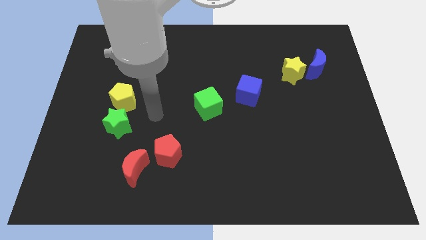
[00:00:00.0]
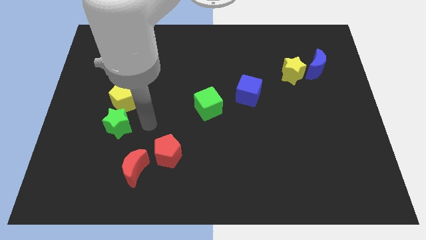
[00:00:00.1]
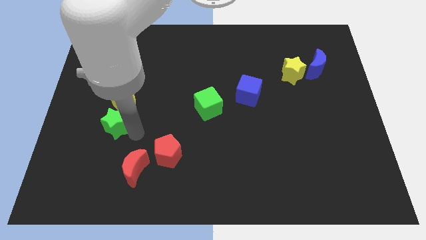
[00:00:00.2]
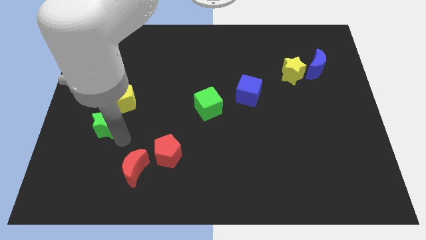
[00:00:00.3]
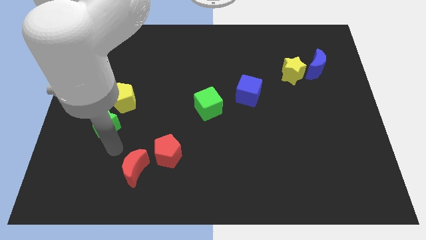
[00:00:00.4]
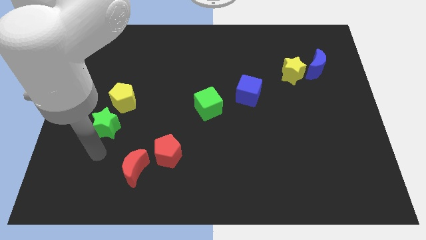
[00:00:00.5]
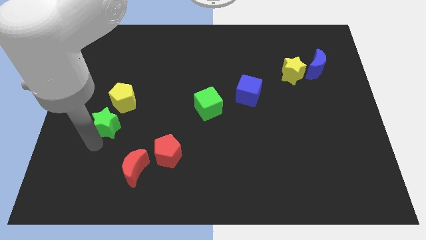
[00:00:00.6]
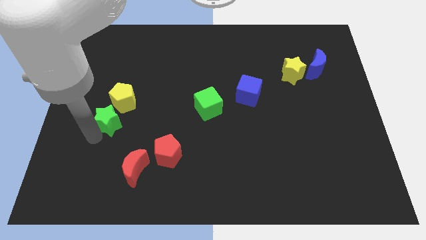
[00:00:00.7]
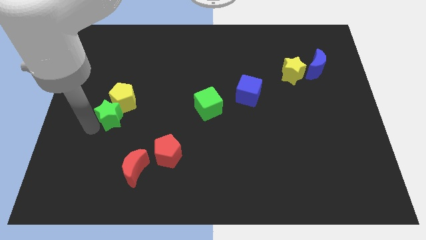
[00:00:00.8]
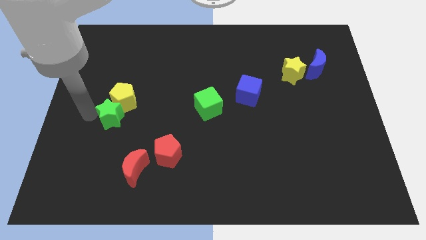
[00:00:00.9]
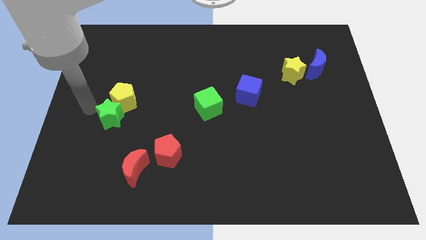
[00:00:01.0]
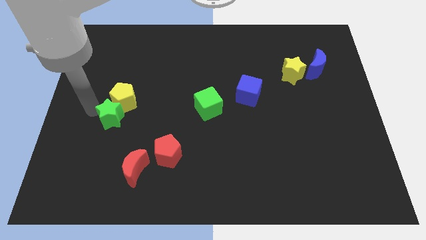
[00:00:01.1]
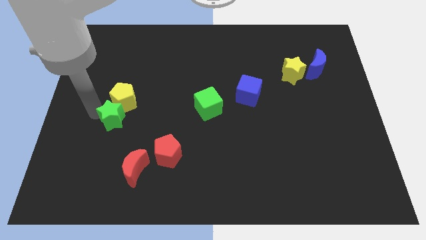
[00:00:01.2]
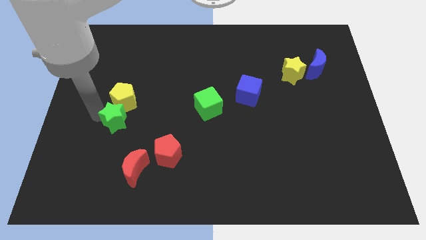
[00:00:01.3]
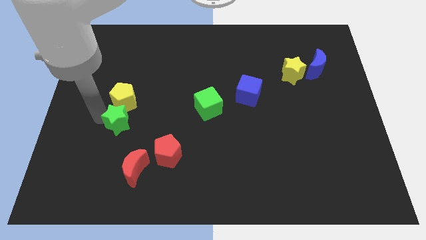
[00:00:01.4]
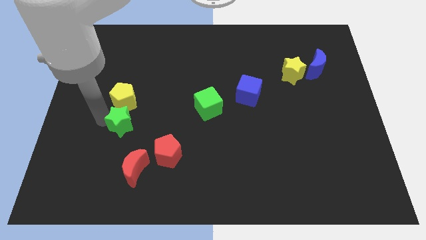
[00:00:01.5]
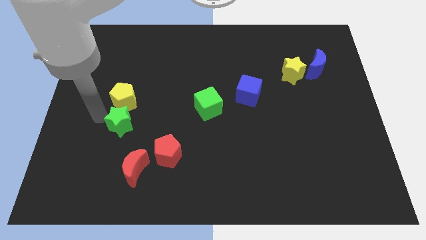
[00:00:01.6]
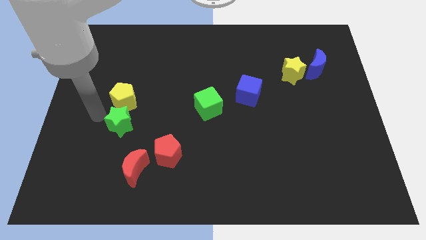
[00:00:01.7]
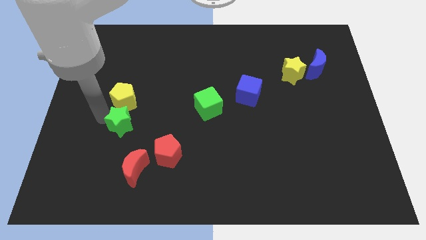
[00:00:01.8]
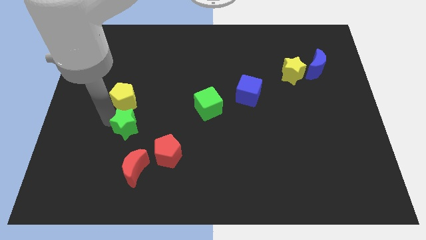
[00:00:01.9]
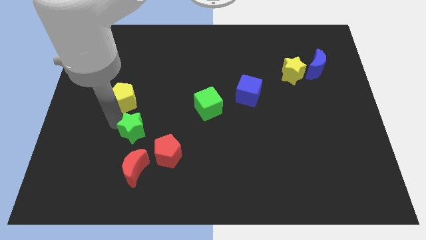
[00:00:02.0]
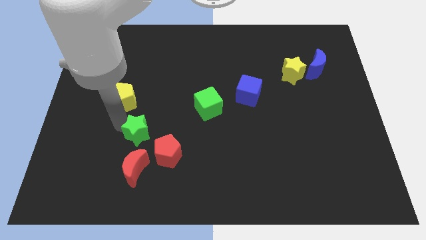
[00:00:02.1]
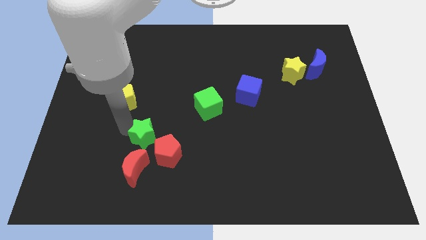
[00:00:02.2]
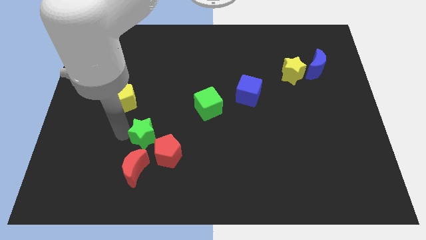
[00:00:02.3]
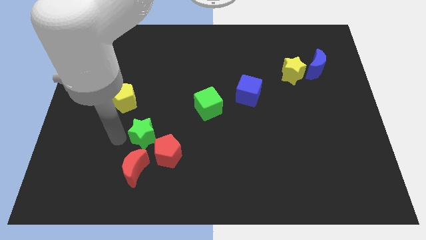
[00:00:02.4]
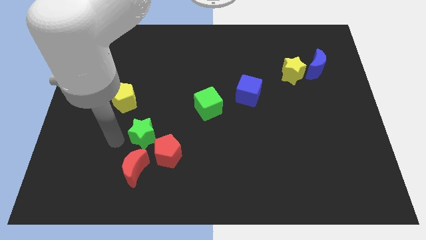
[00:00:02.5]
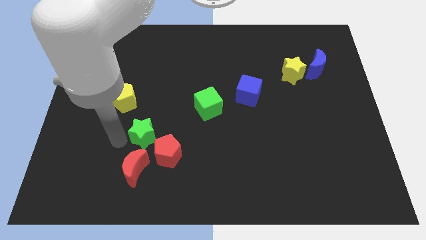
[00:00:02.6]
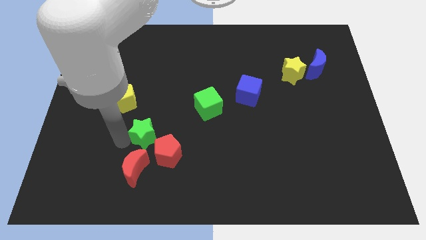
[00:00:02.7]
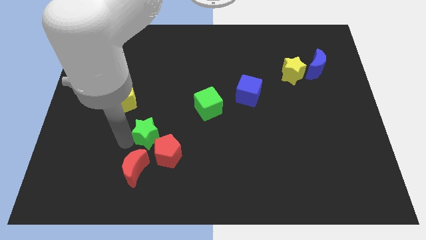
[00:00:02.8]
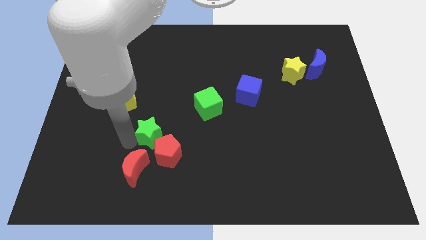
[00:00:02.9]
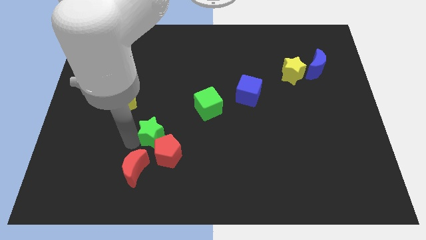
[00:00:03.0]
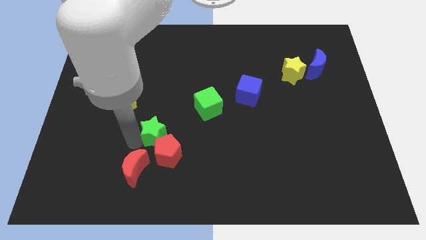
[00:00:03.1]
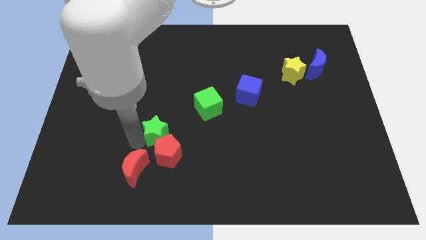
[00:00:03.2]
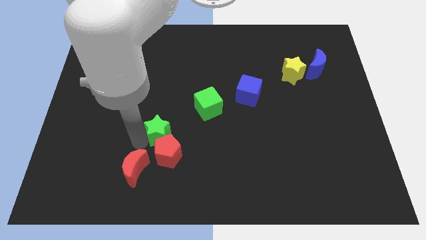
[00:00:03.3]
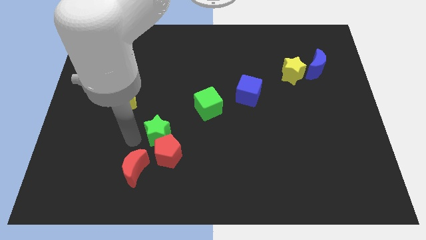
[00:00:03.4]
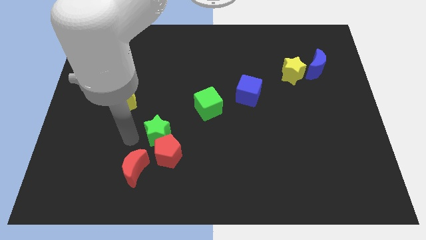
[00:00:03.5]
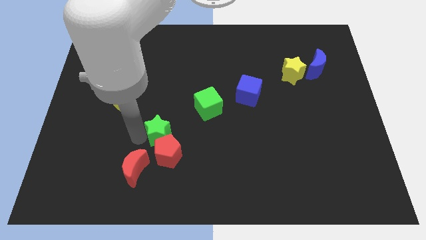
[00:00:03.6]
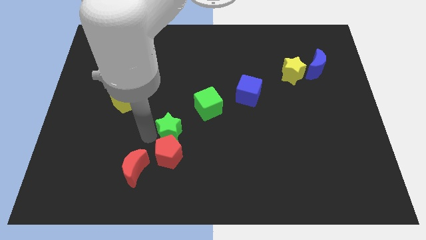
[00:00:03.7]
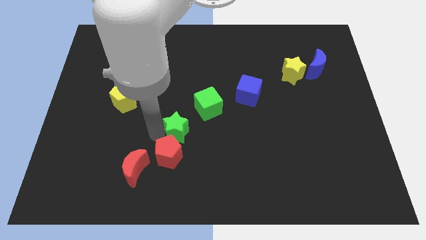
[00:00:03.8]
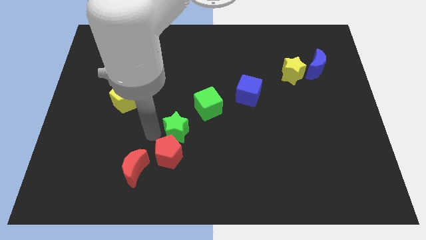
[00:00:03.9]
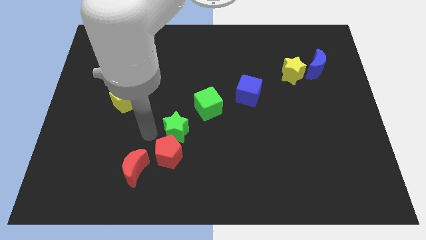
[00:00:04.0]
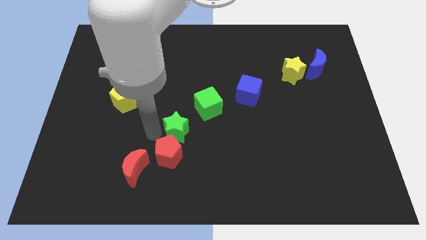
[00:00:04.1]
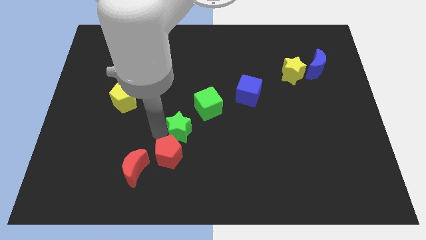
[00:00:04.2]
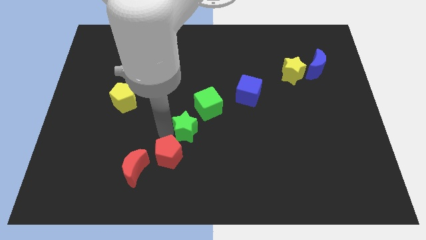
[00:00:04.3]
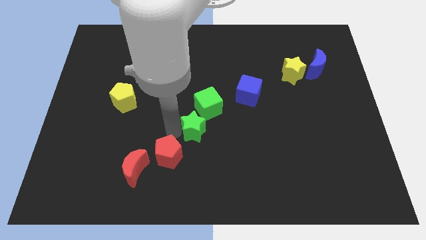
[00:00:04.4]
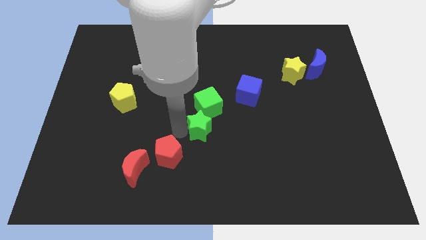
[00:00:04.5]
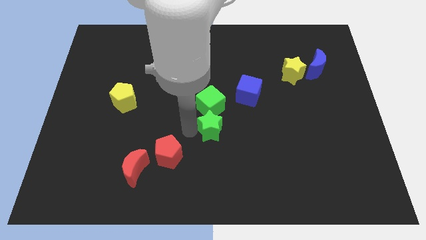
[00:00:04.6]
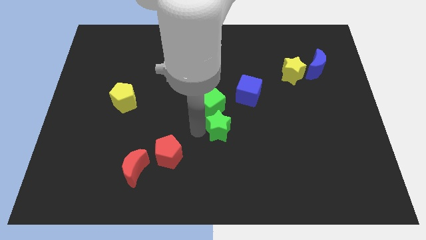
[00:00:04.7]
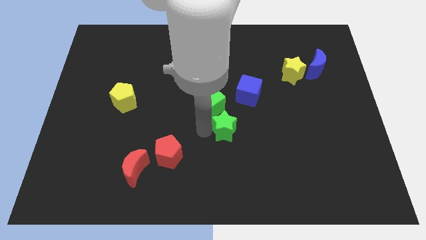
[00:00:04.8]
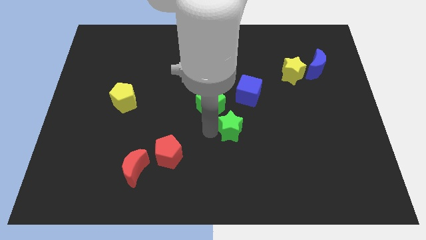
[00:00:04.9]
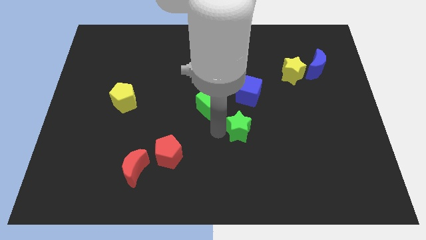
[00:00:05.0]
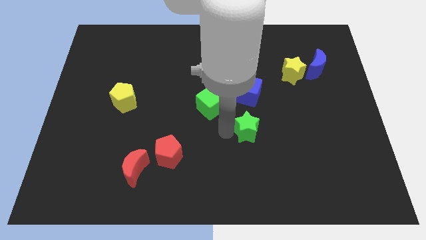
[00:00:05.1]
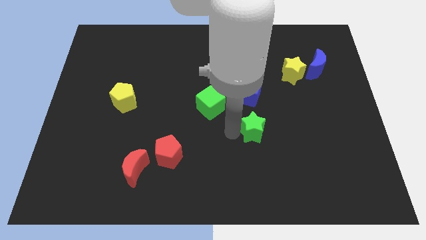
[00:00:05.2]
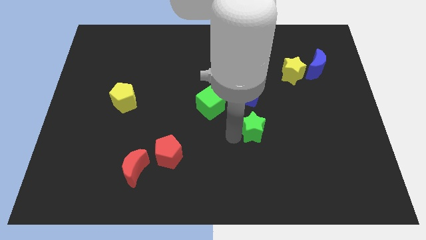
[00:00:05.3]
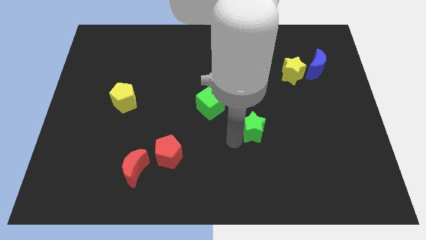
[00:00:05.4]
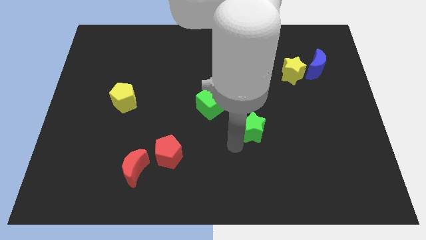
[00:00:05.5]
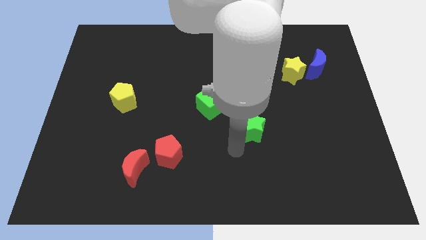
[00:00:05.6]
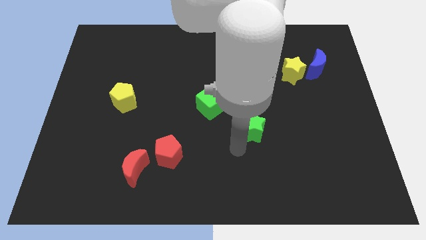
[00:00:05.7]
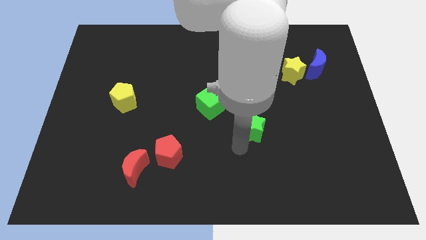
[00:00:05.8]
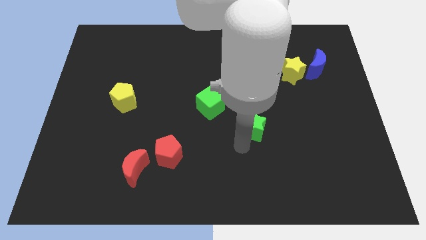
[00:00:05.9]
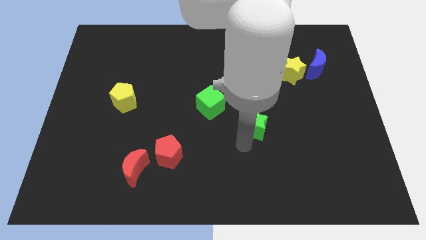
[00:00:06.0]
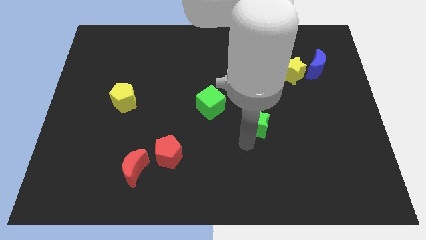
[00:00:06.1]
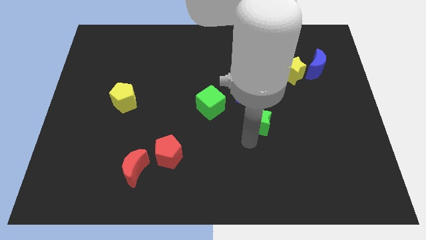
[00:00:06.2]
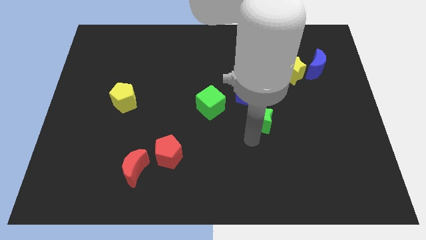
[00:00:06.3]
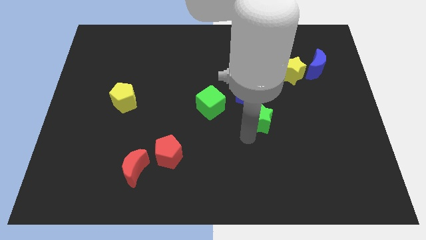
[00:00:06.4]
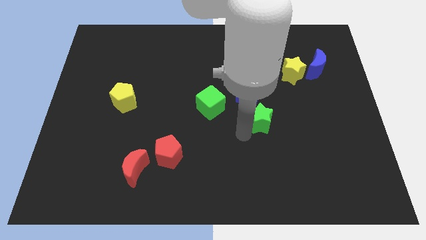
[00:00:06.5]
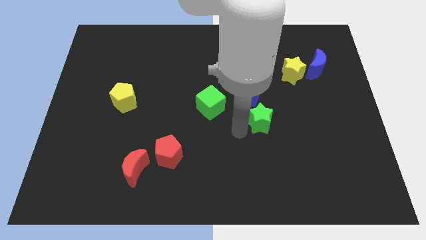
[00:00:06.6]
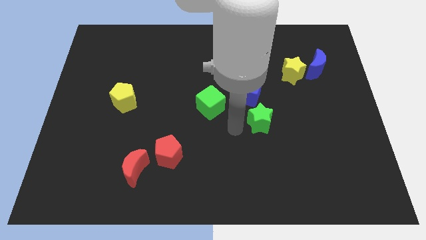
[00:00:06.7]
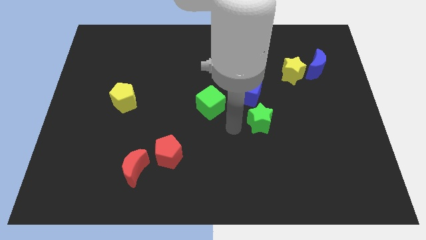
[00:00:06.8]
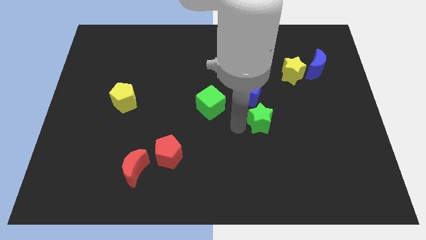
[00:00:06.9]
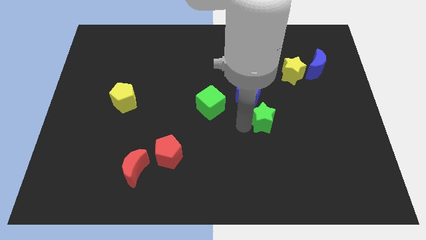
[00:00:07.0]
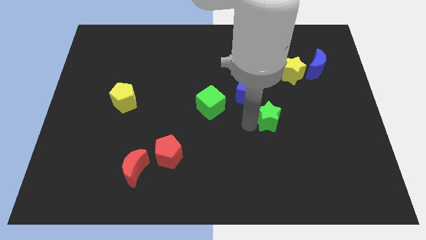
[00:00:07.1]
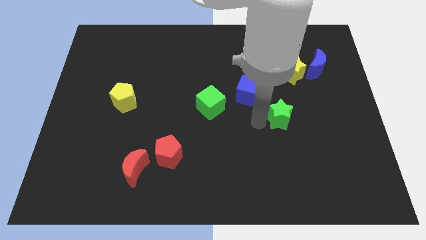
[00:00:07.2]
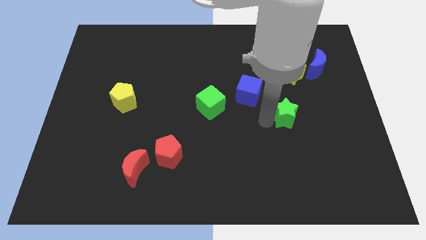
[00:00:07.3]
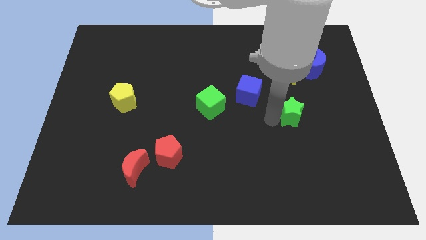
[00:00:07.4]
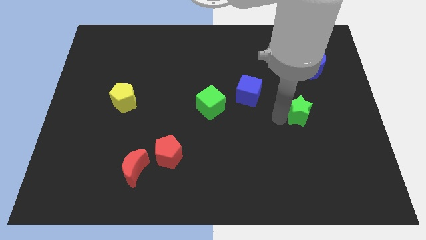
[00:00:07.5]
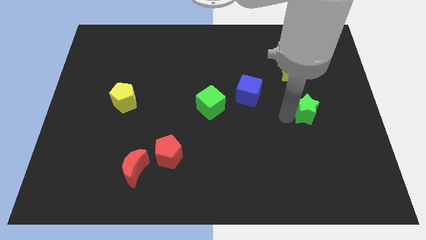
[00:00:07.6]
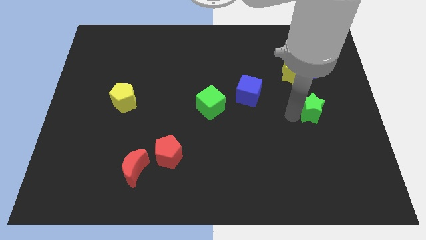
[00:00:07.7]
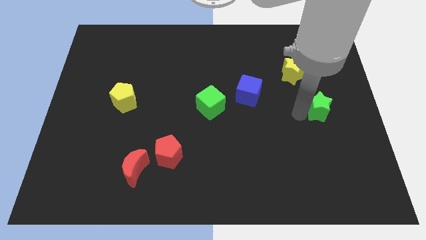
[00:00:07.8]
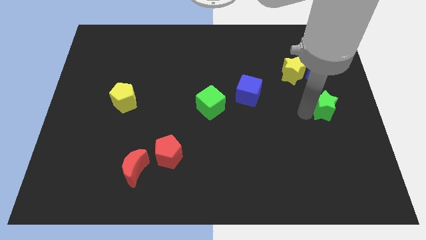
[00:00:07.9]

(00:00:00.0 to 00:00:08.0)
slide the green star to the right side
